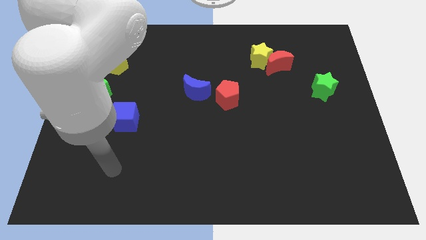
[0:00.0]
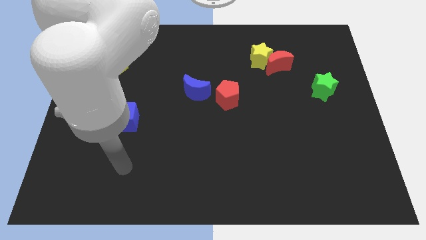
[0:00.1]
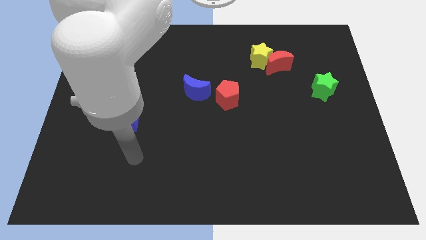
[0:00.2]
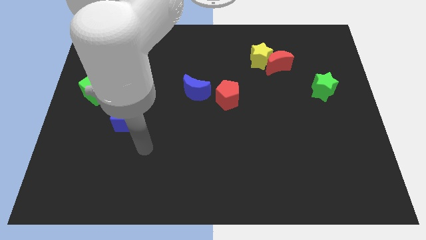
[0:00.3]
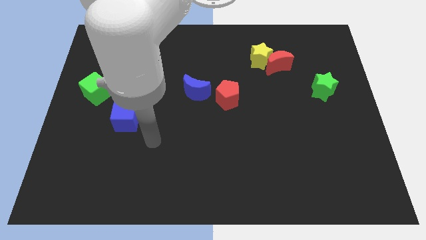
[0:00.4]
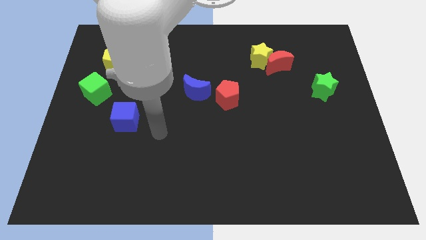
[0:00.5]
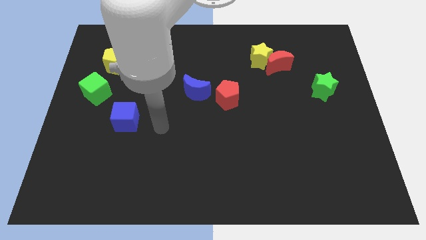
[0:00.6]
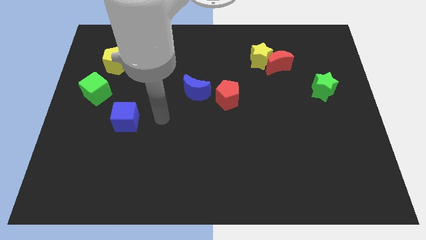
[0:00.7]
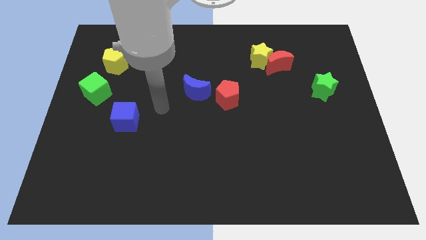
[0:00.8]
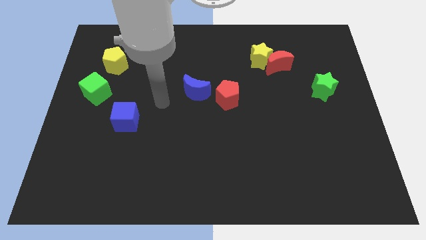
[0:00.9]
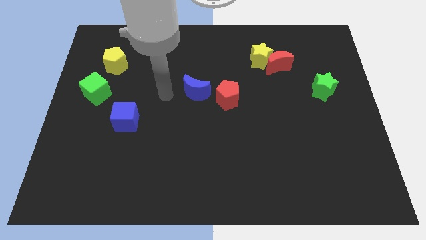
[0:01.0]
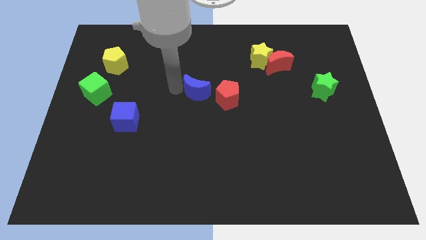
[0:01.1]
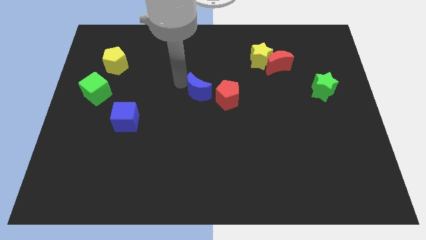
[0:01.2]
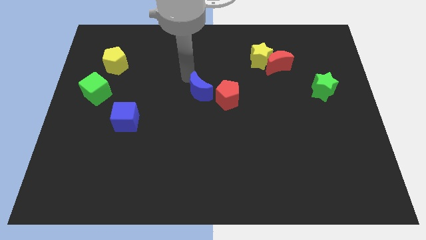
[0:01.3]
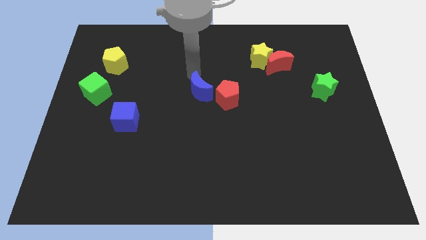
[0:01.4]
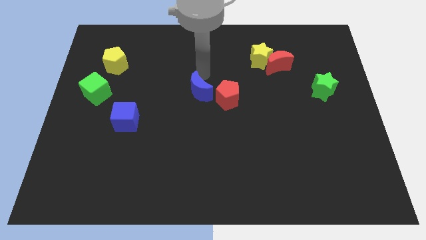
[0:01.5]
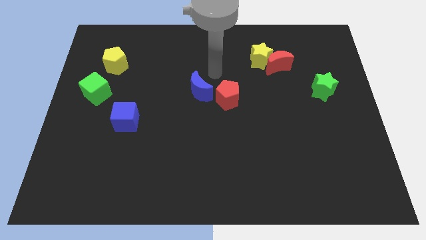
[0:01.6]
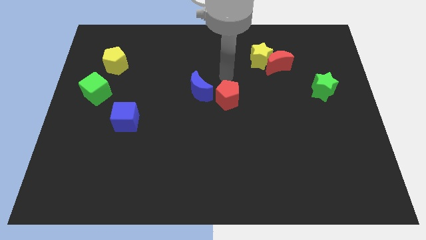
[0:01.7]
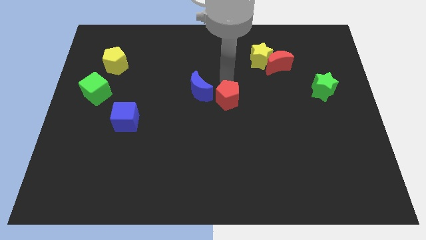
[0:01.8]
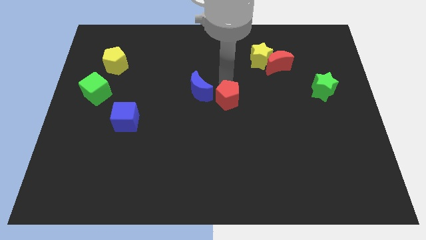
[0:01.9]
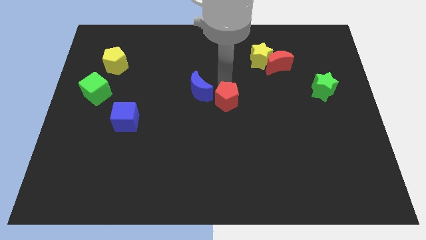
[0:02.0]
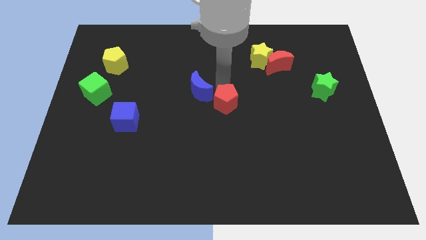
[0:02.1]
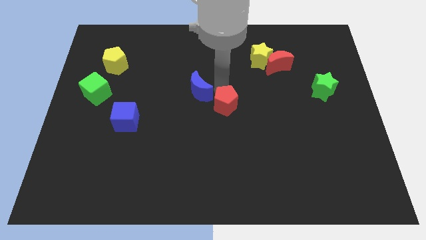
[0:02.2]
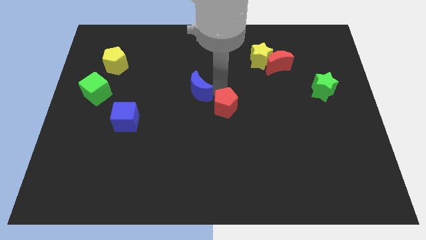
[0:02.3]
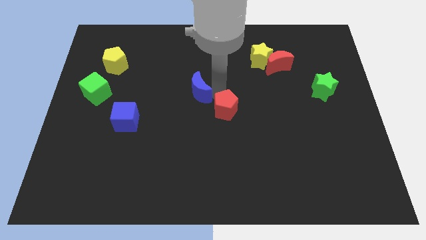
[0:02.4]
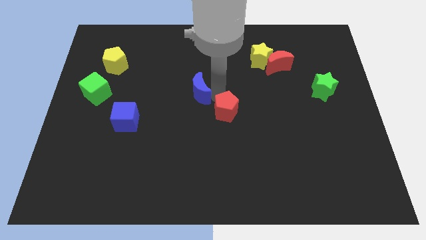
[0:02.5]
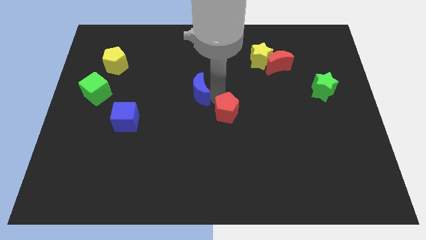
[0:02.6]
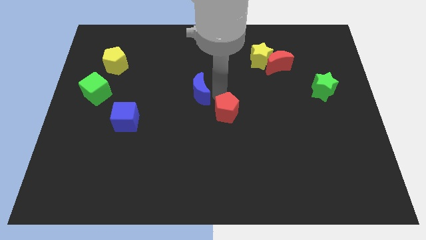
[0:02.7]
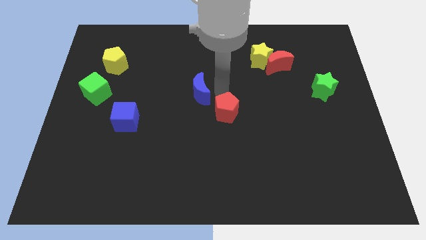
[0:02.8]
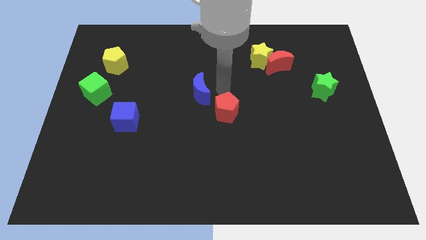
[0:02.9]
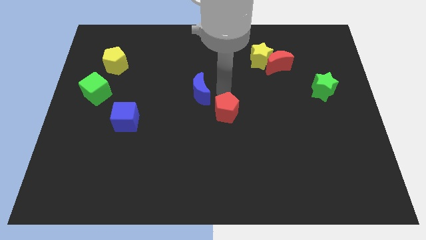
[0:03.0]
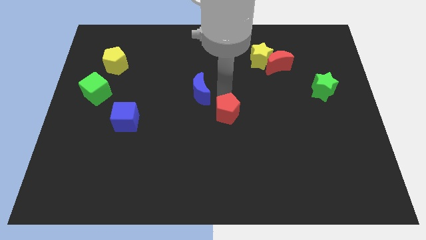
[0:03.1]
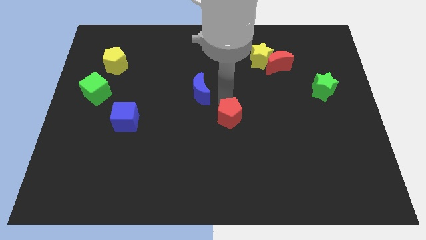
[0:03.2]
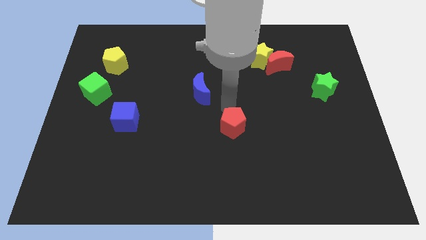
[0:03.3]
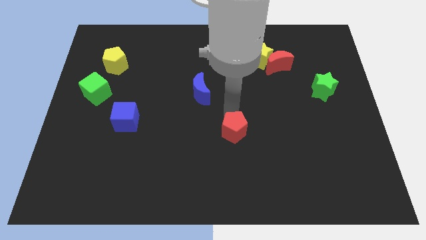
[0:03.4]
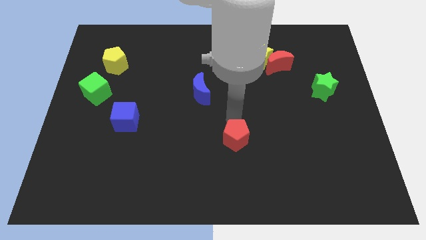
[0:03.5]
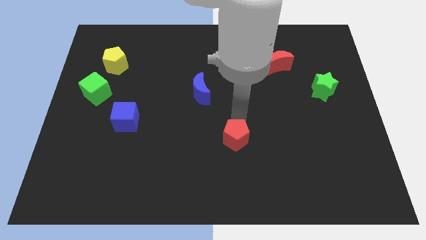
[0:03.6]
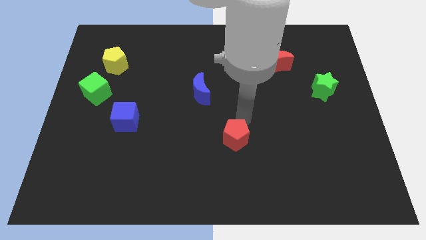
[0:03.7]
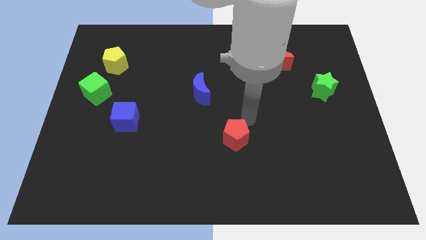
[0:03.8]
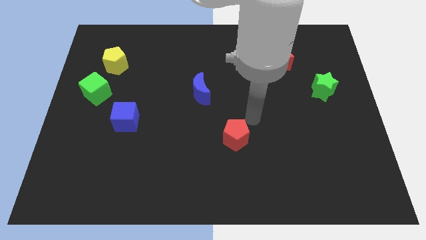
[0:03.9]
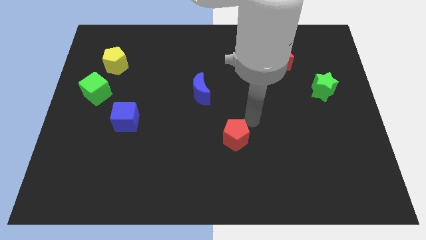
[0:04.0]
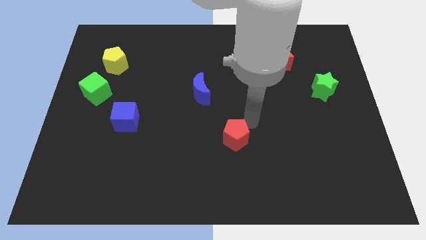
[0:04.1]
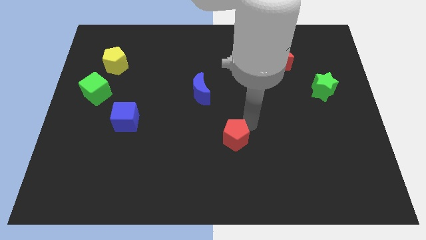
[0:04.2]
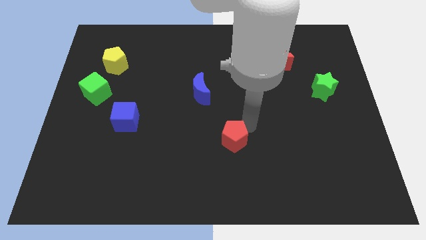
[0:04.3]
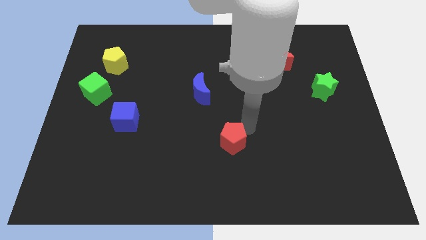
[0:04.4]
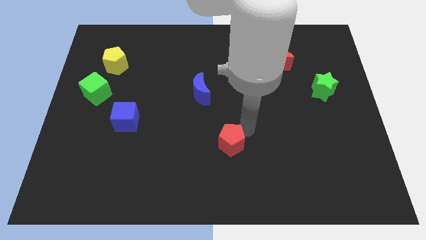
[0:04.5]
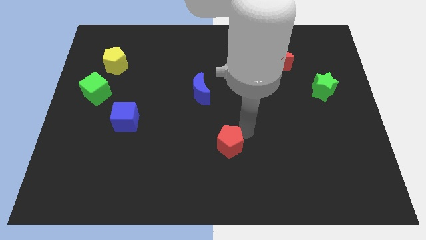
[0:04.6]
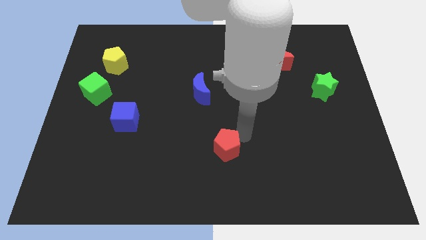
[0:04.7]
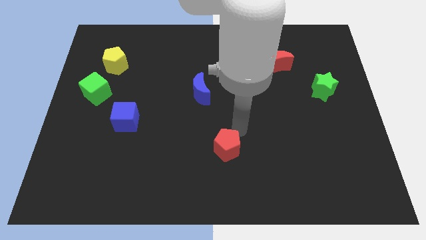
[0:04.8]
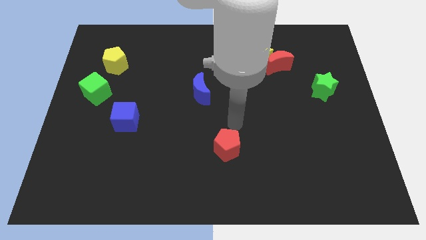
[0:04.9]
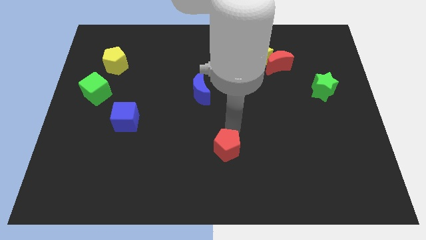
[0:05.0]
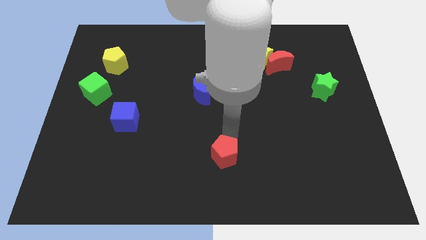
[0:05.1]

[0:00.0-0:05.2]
push the red pentagon to the bottom side

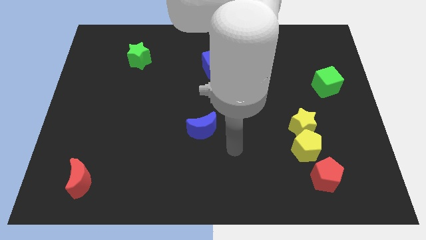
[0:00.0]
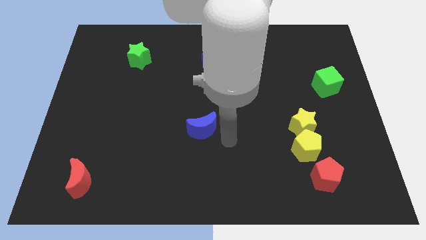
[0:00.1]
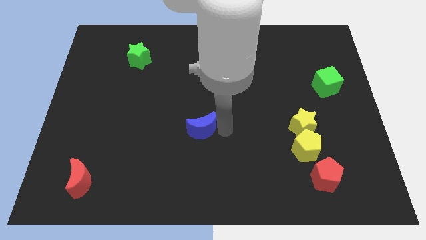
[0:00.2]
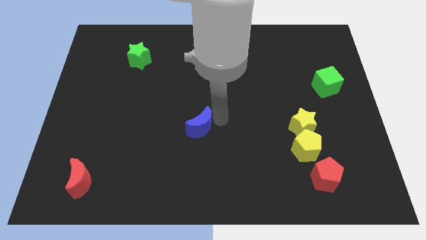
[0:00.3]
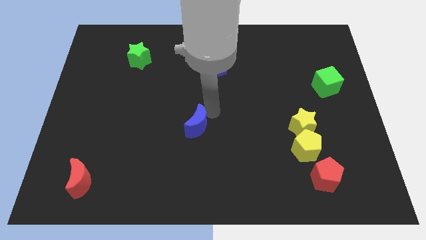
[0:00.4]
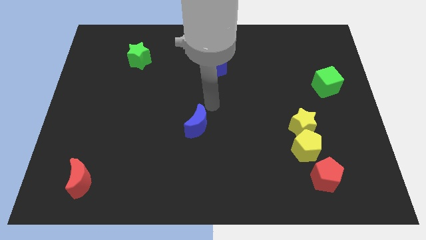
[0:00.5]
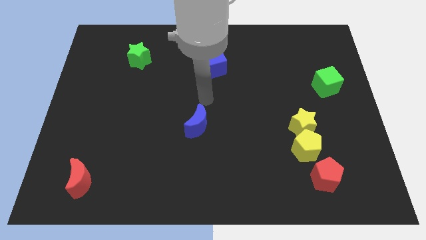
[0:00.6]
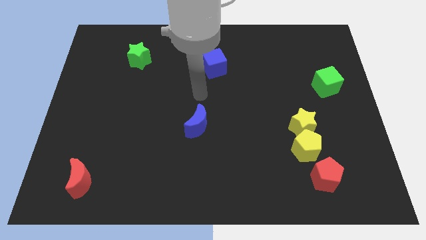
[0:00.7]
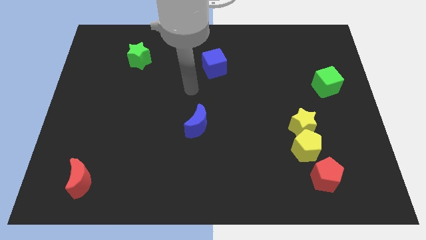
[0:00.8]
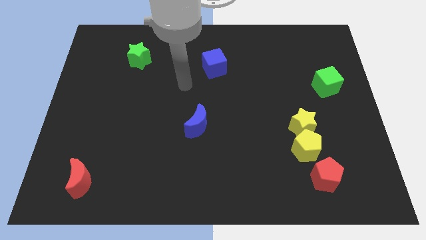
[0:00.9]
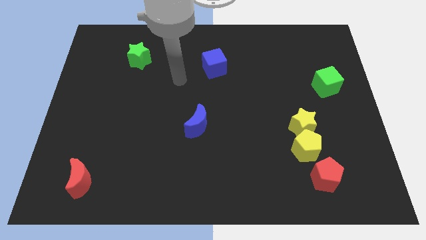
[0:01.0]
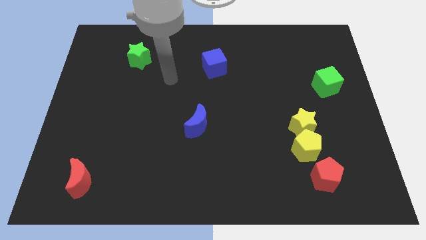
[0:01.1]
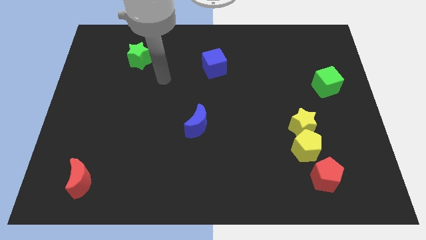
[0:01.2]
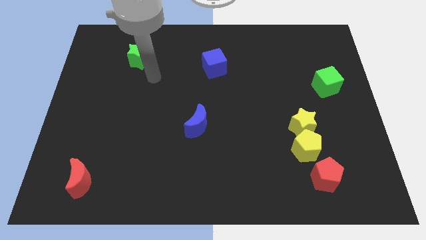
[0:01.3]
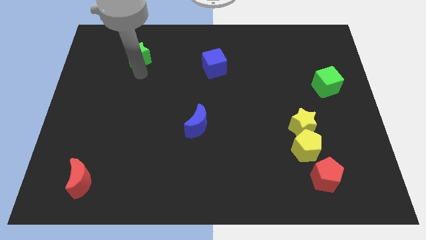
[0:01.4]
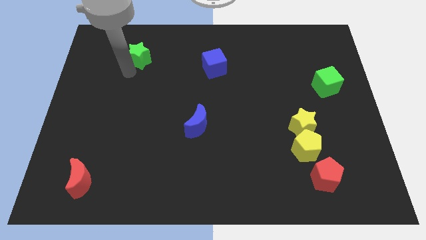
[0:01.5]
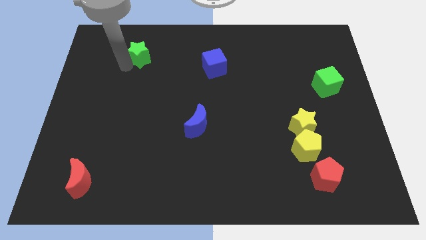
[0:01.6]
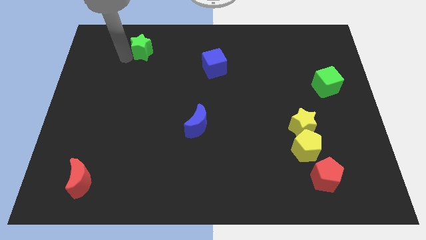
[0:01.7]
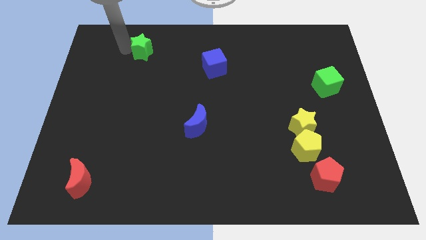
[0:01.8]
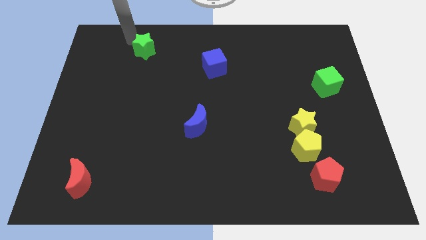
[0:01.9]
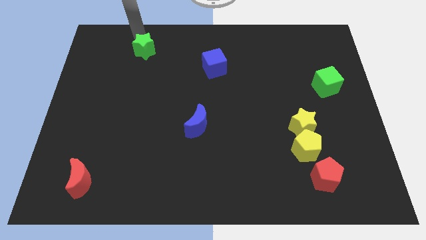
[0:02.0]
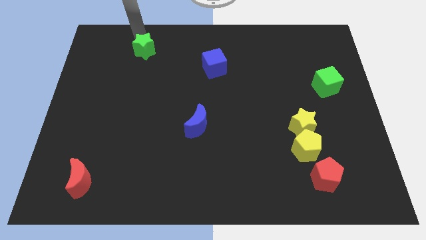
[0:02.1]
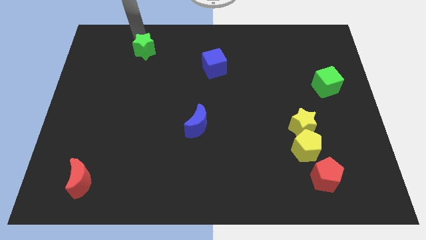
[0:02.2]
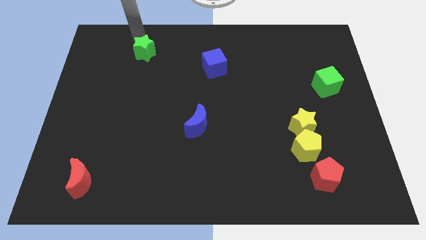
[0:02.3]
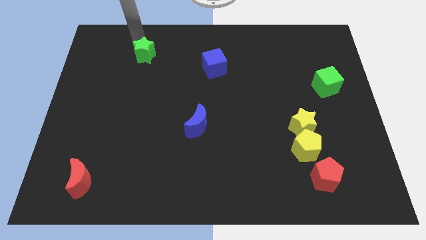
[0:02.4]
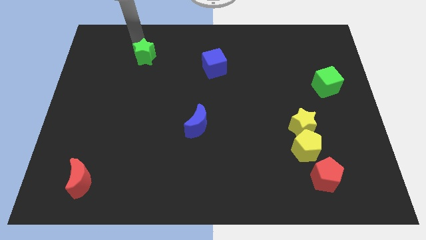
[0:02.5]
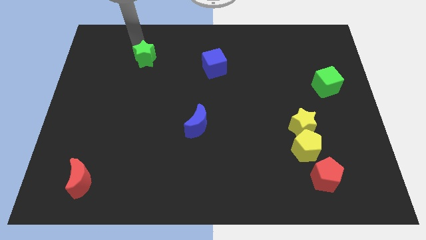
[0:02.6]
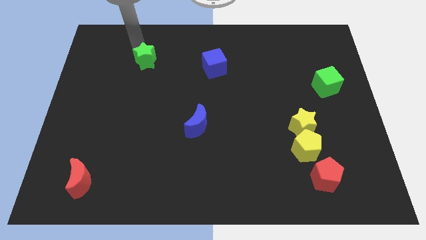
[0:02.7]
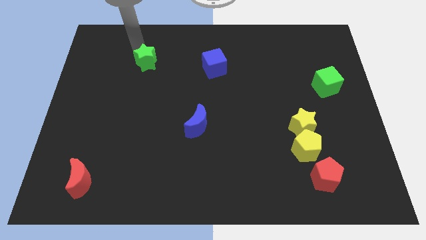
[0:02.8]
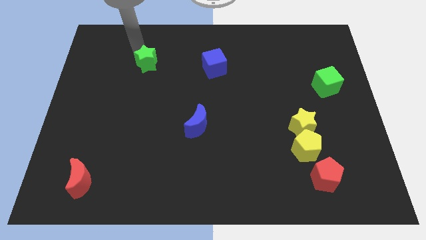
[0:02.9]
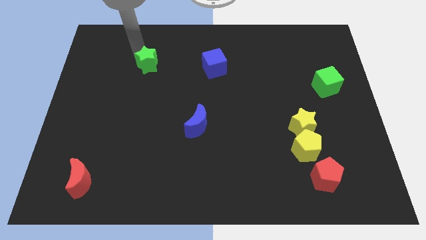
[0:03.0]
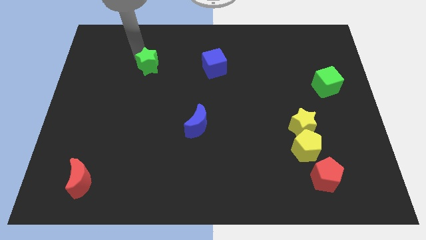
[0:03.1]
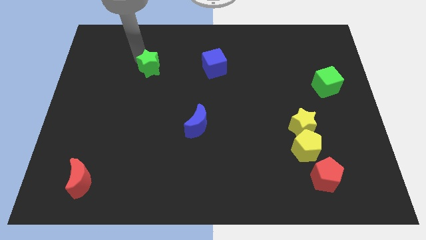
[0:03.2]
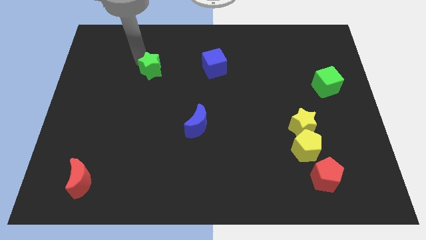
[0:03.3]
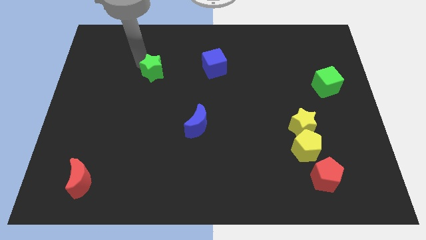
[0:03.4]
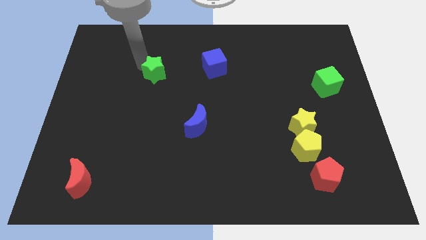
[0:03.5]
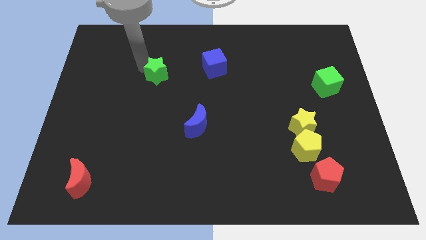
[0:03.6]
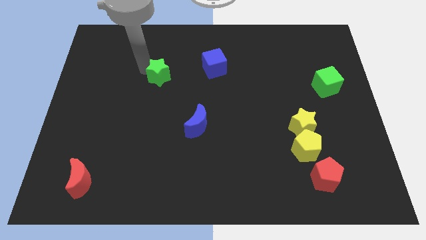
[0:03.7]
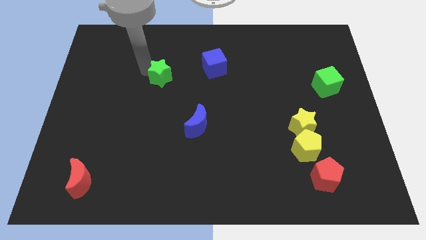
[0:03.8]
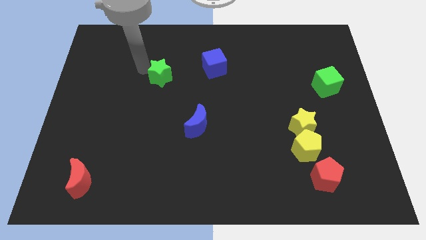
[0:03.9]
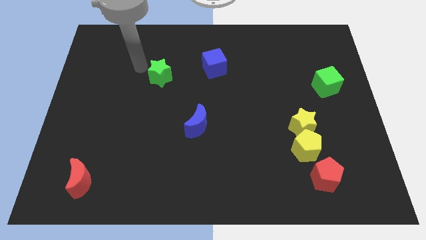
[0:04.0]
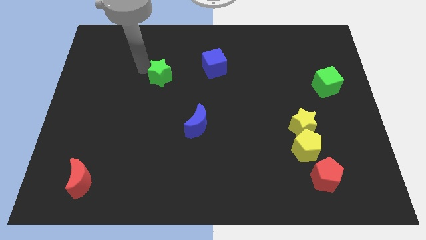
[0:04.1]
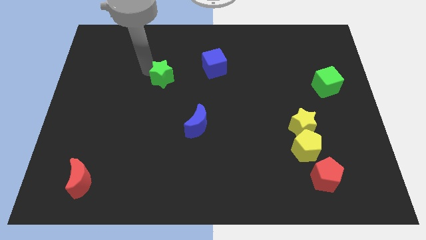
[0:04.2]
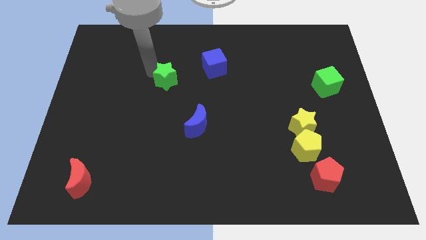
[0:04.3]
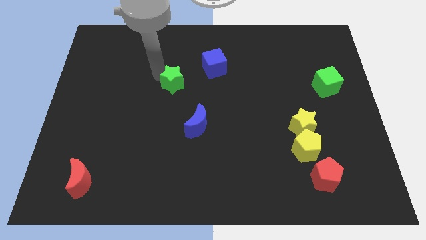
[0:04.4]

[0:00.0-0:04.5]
put the green star to the middle
